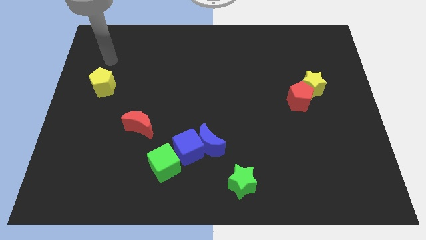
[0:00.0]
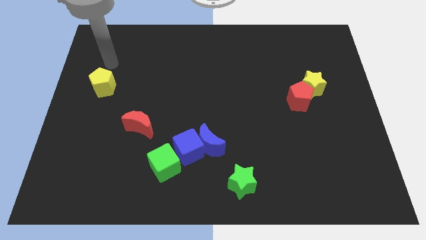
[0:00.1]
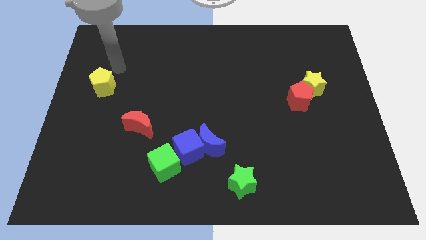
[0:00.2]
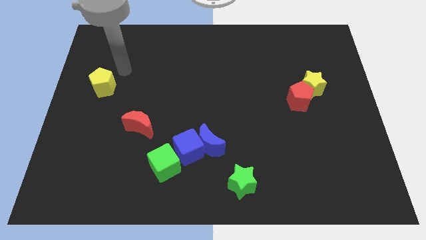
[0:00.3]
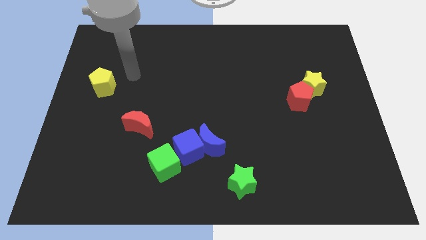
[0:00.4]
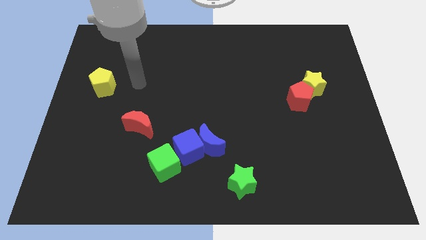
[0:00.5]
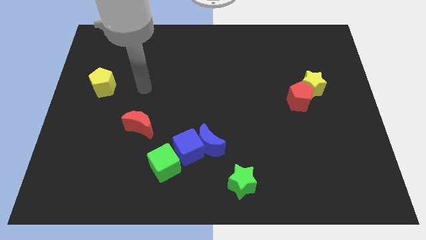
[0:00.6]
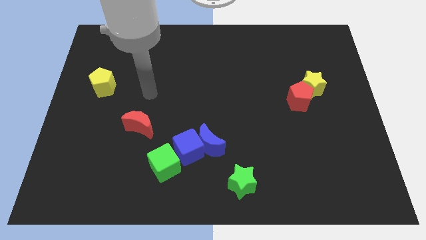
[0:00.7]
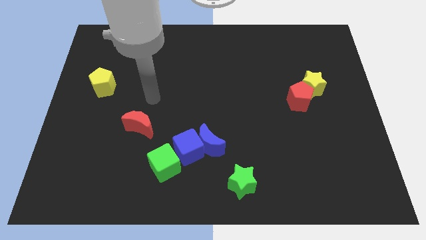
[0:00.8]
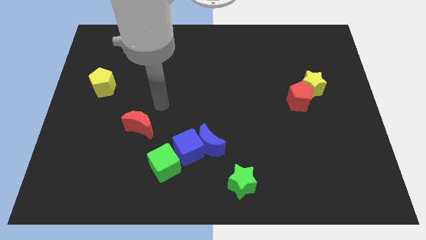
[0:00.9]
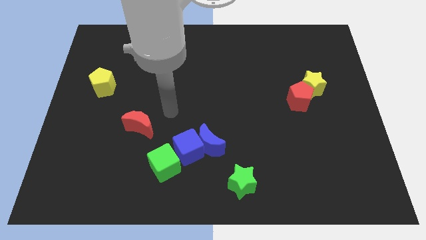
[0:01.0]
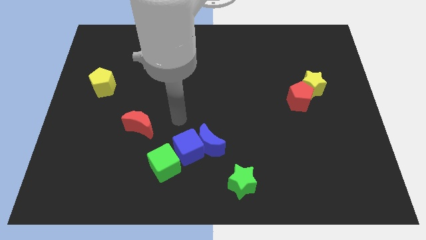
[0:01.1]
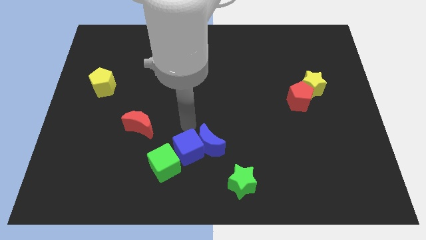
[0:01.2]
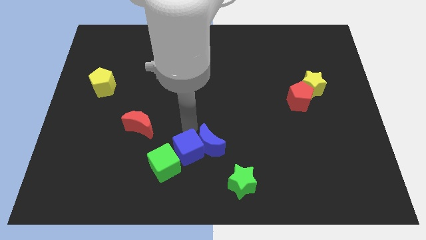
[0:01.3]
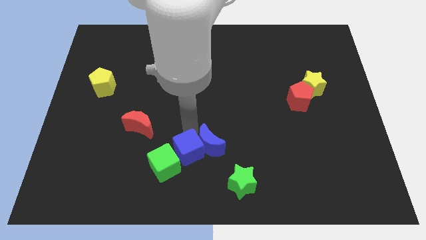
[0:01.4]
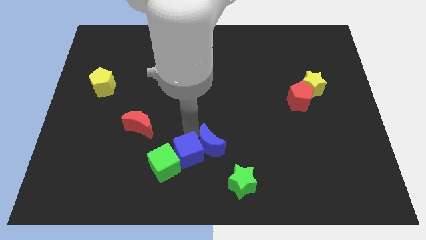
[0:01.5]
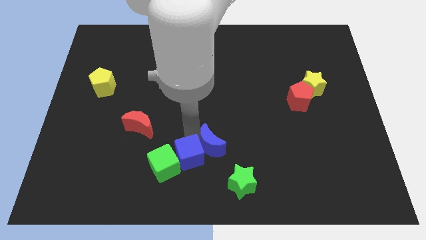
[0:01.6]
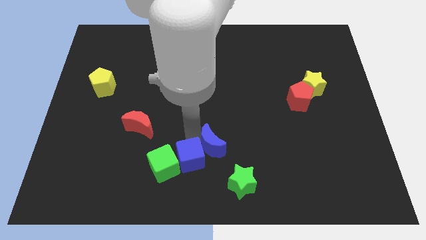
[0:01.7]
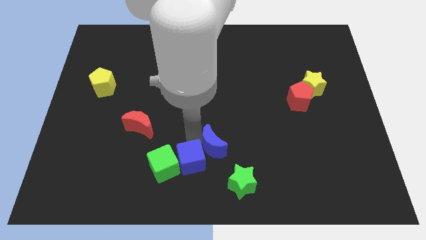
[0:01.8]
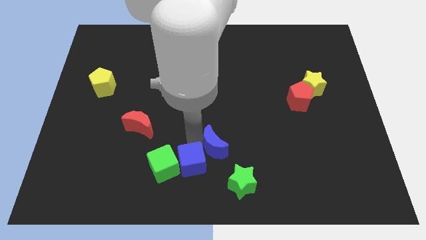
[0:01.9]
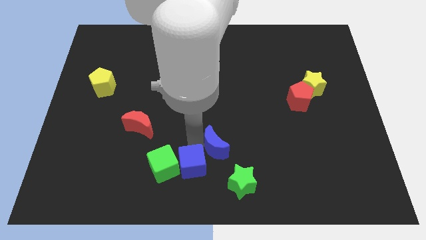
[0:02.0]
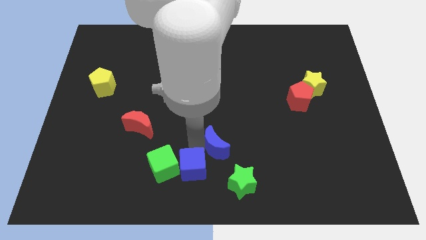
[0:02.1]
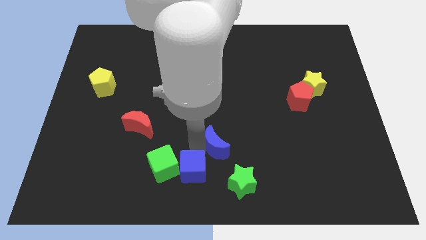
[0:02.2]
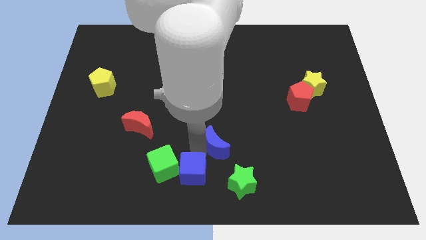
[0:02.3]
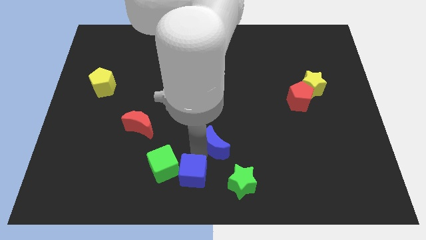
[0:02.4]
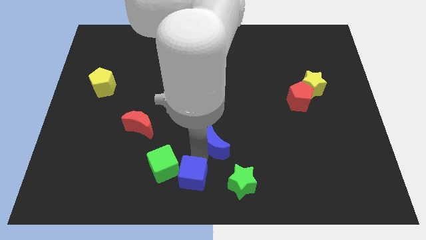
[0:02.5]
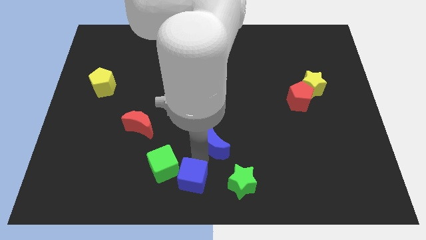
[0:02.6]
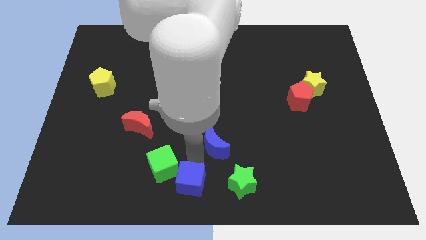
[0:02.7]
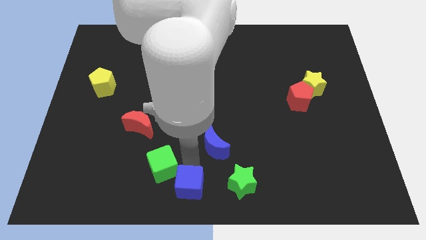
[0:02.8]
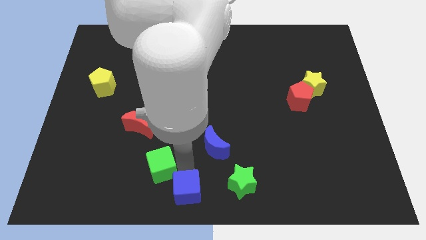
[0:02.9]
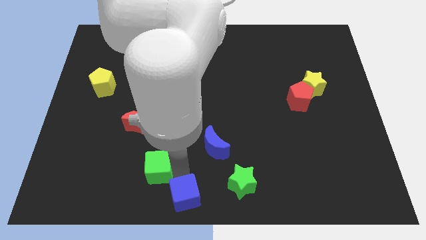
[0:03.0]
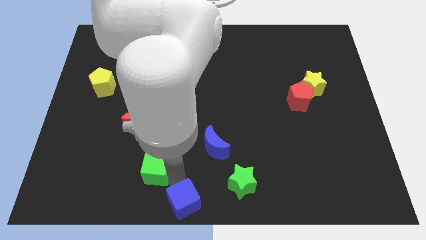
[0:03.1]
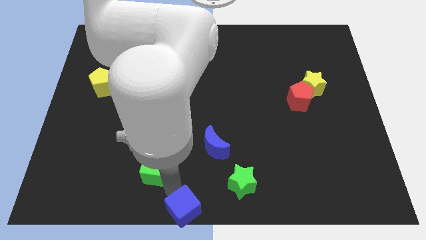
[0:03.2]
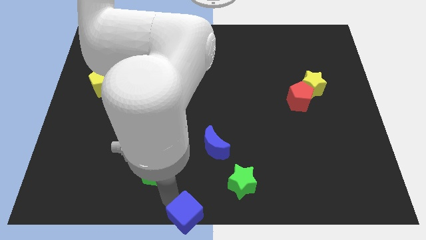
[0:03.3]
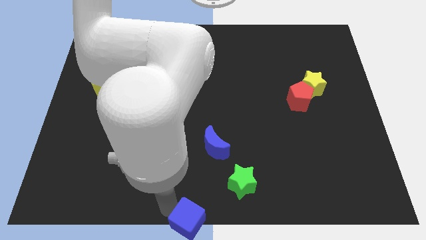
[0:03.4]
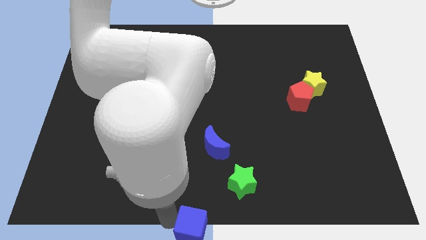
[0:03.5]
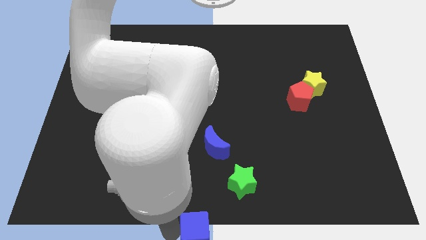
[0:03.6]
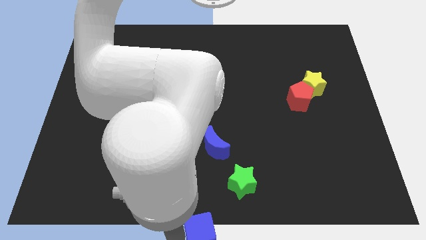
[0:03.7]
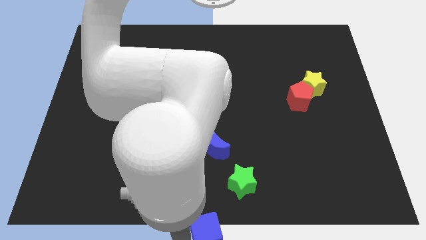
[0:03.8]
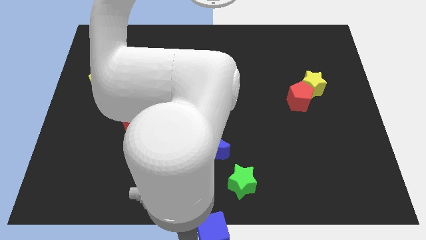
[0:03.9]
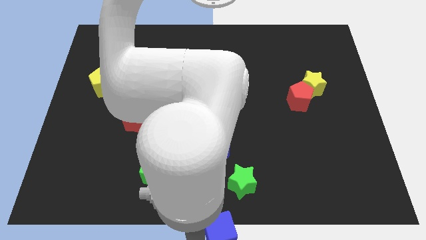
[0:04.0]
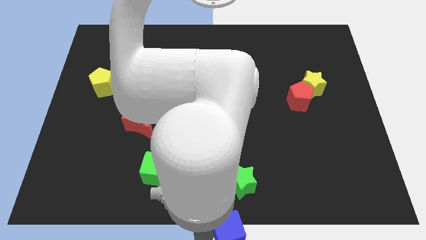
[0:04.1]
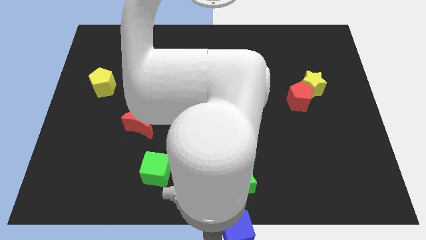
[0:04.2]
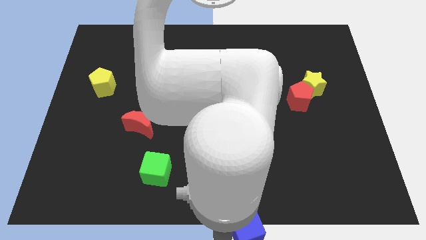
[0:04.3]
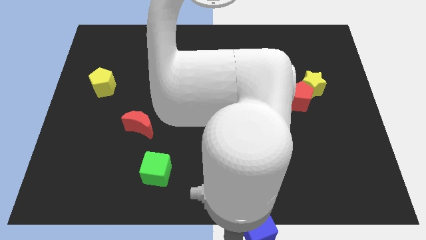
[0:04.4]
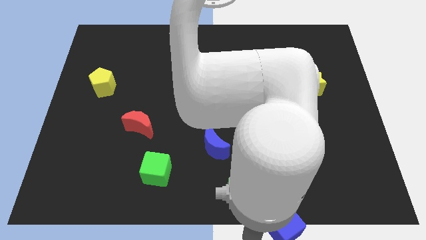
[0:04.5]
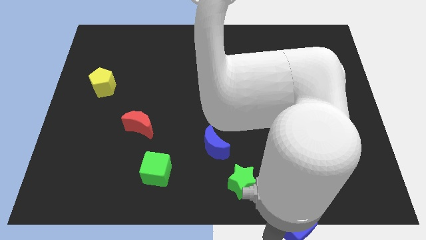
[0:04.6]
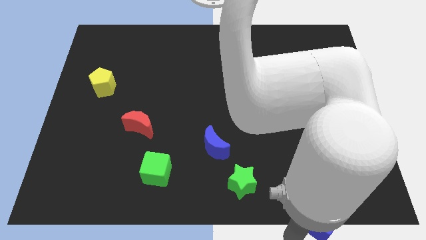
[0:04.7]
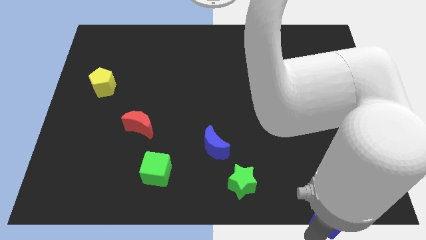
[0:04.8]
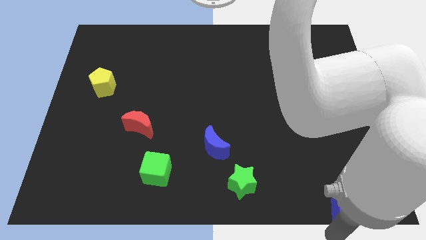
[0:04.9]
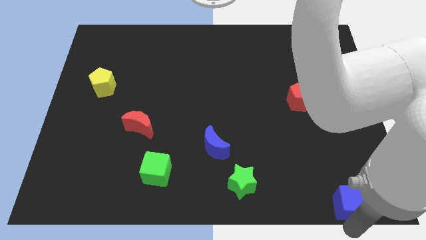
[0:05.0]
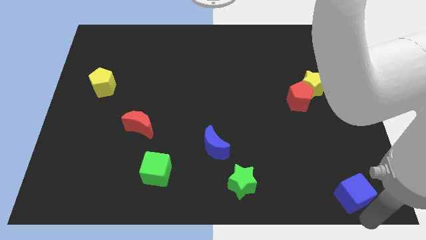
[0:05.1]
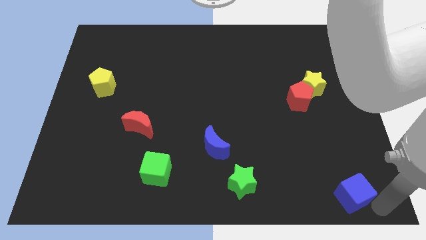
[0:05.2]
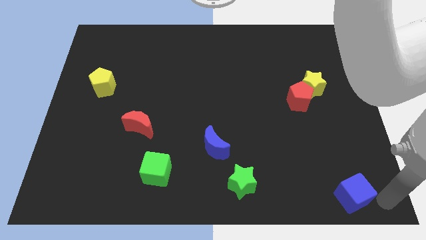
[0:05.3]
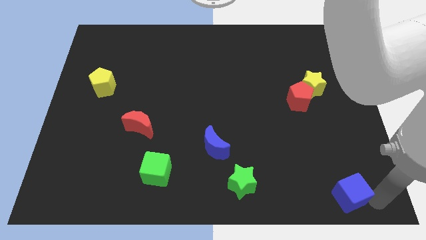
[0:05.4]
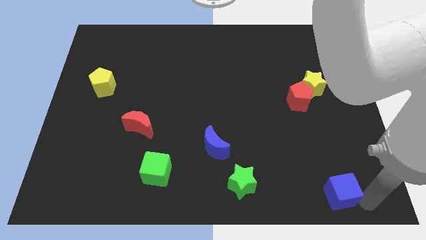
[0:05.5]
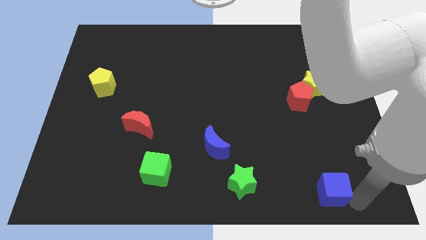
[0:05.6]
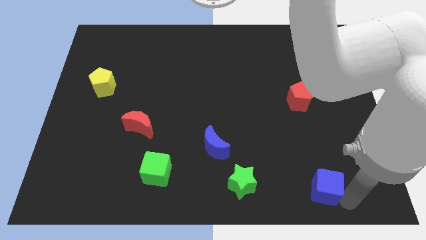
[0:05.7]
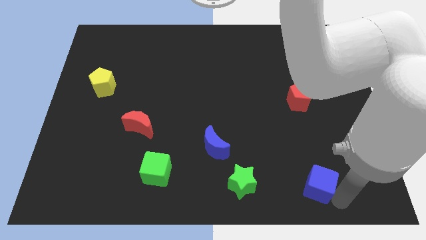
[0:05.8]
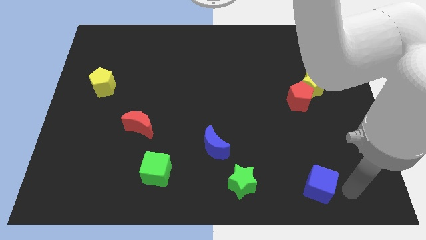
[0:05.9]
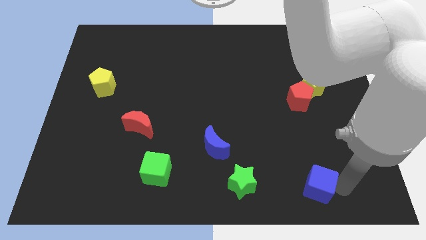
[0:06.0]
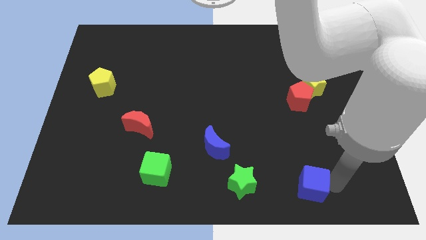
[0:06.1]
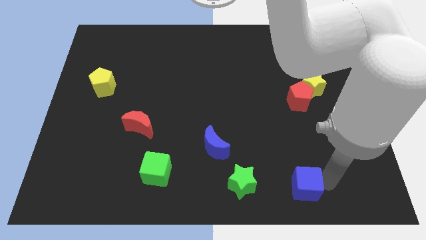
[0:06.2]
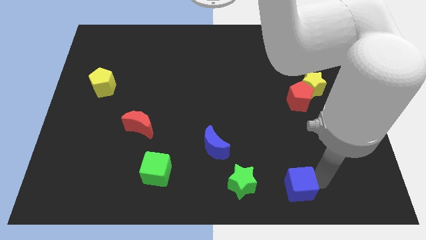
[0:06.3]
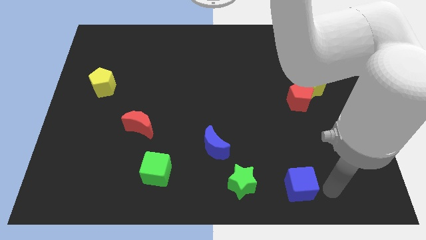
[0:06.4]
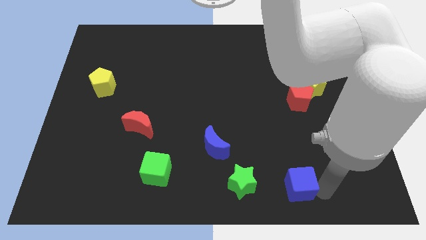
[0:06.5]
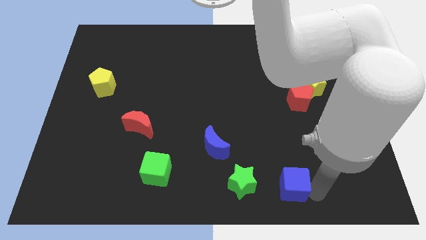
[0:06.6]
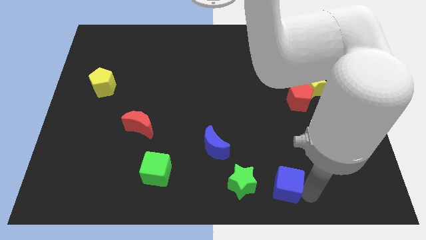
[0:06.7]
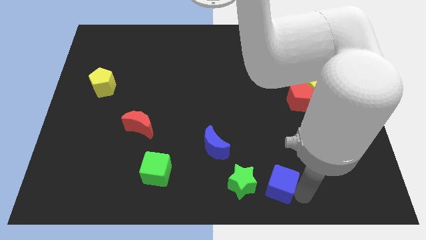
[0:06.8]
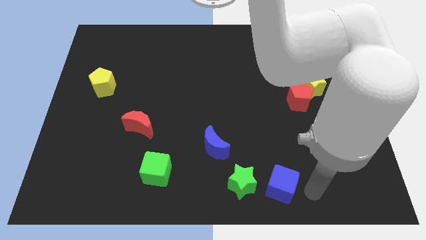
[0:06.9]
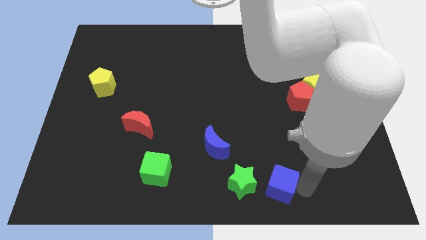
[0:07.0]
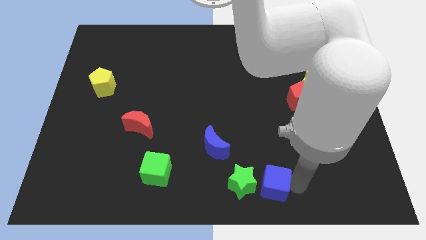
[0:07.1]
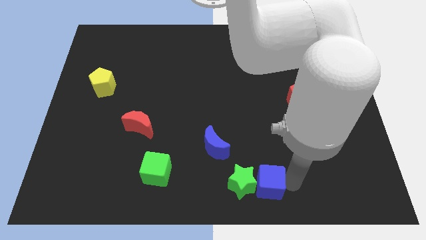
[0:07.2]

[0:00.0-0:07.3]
push the blue cube to the green star
